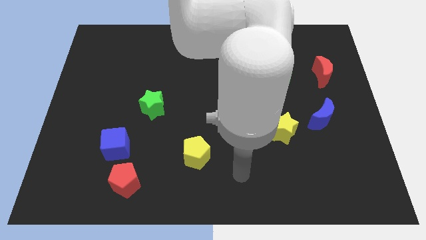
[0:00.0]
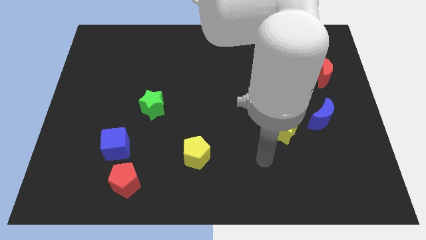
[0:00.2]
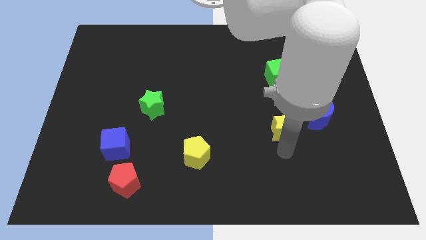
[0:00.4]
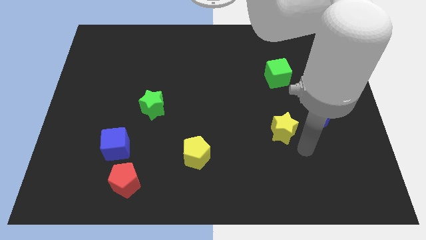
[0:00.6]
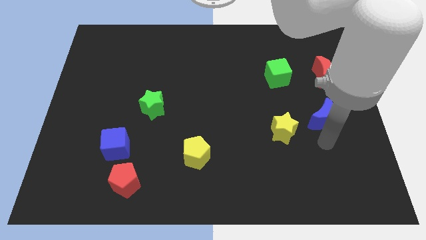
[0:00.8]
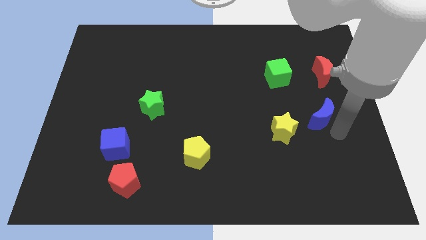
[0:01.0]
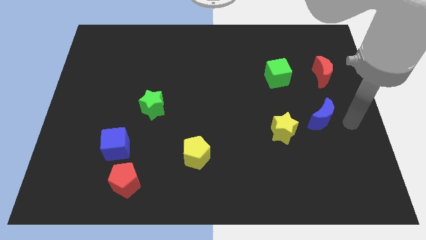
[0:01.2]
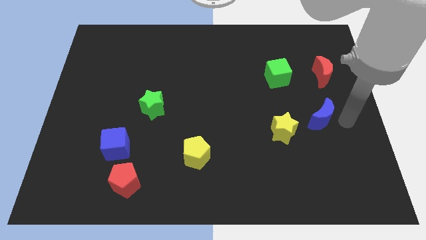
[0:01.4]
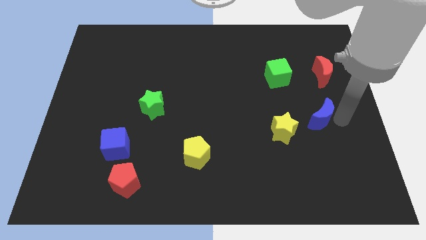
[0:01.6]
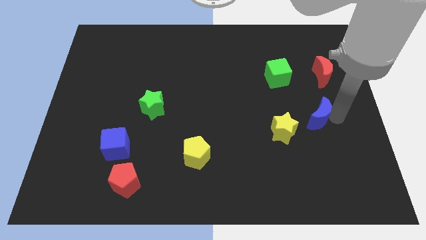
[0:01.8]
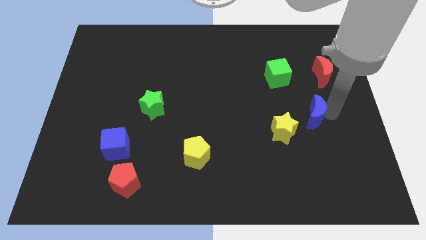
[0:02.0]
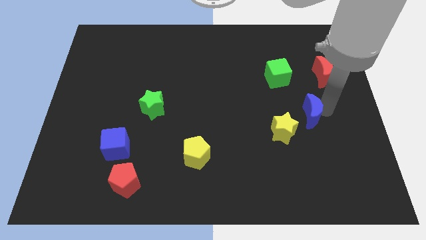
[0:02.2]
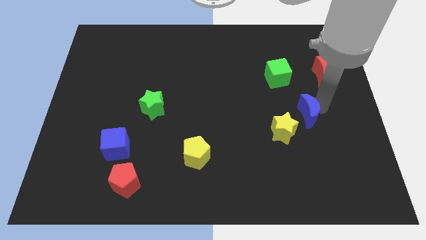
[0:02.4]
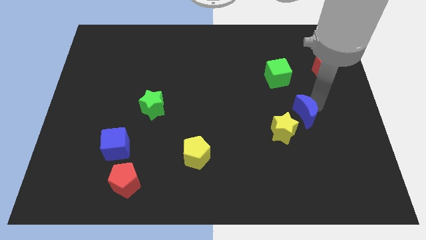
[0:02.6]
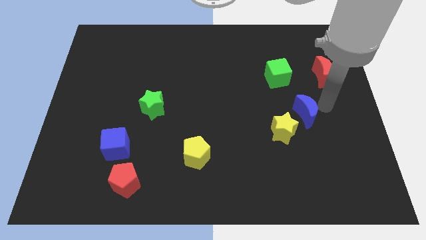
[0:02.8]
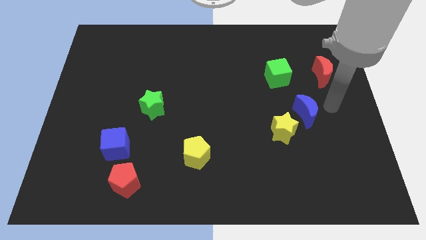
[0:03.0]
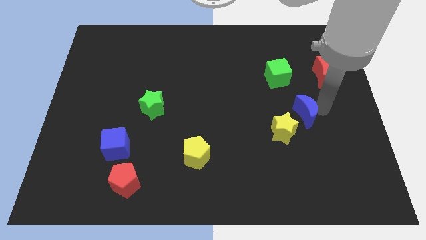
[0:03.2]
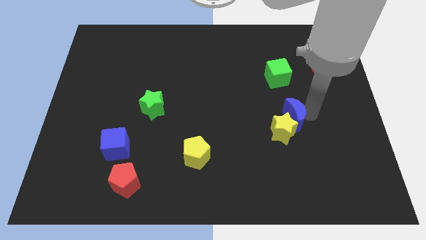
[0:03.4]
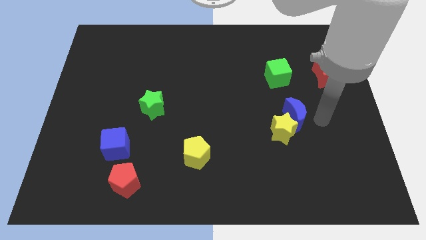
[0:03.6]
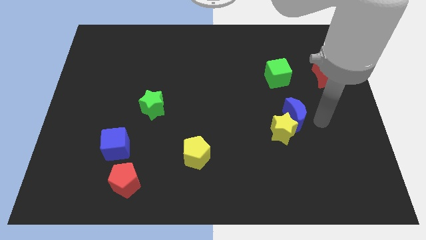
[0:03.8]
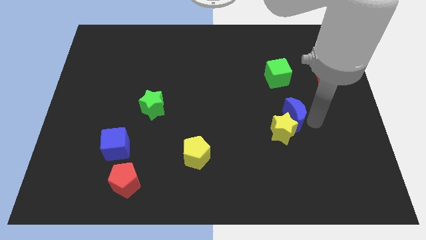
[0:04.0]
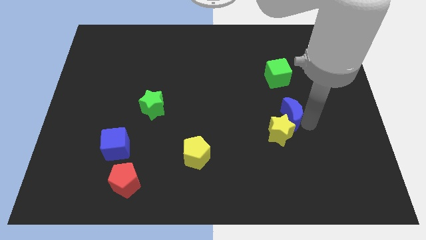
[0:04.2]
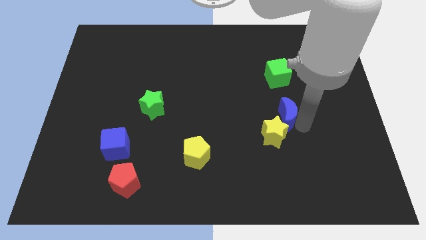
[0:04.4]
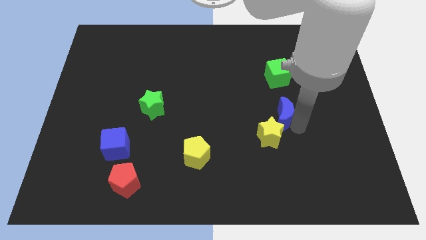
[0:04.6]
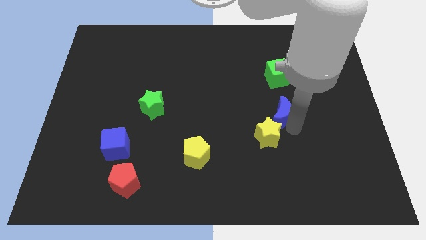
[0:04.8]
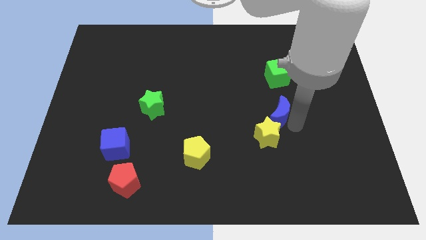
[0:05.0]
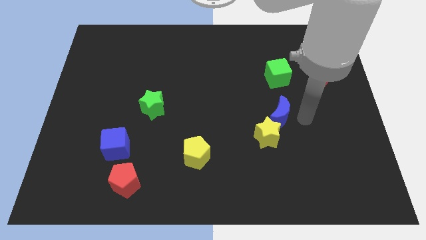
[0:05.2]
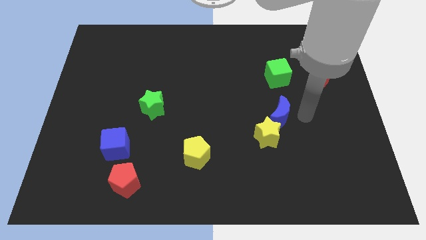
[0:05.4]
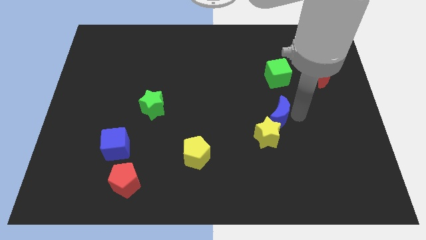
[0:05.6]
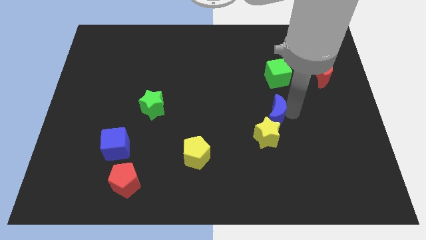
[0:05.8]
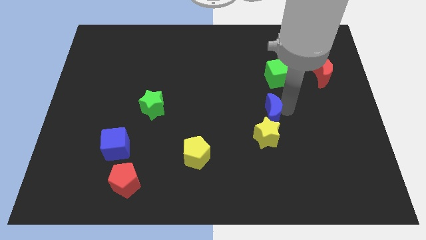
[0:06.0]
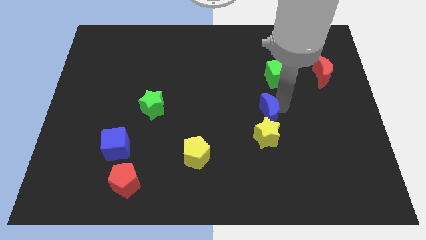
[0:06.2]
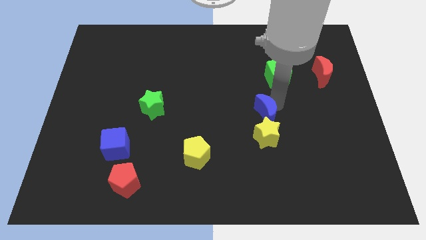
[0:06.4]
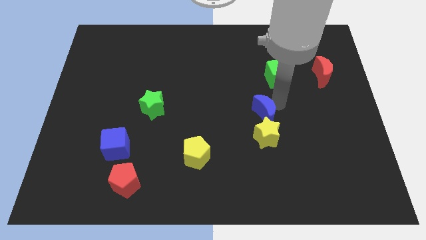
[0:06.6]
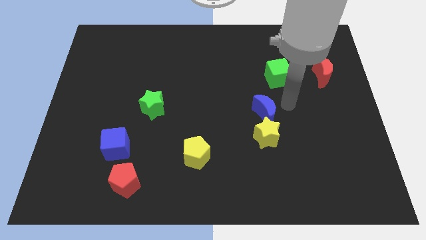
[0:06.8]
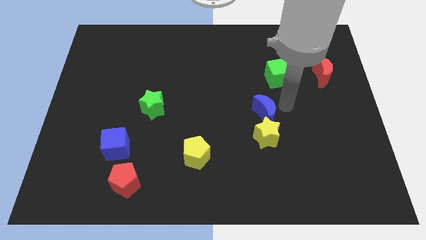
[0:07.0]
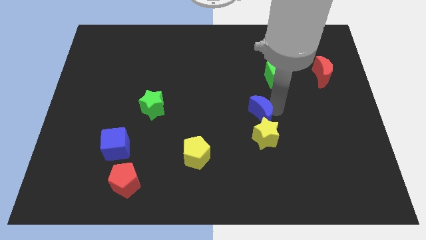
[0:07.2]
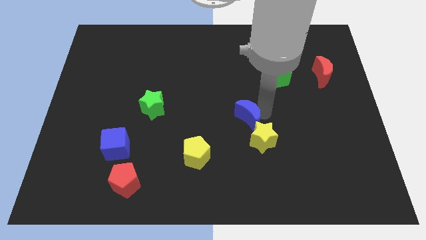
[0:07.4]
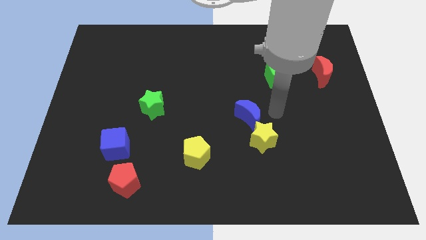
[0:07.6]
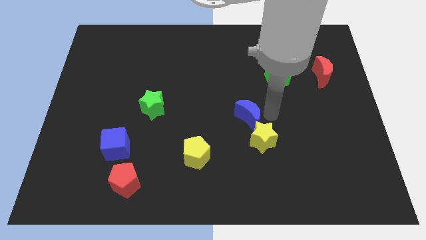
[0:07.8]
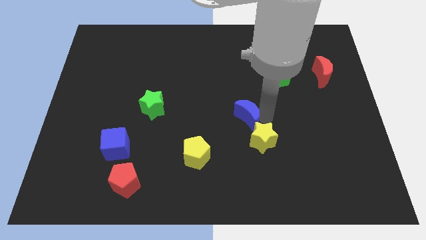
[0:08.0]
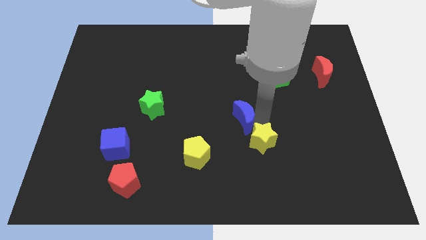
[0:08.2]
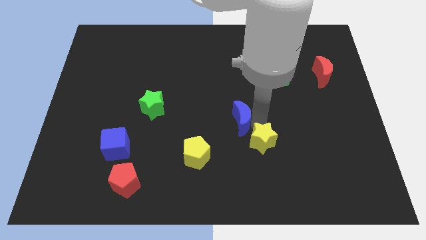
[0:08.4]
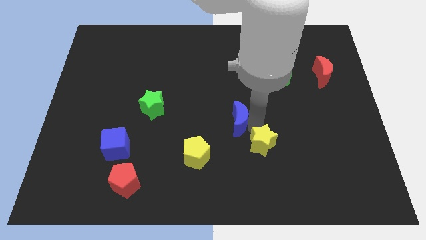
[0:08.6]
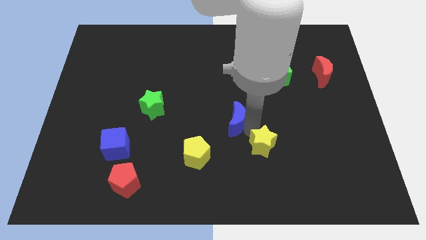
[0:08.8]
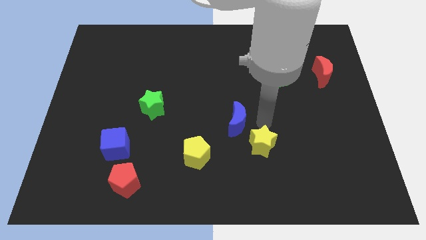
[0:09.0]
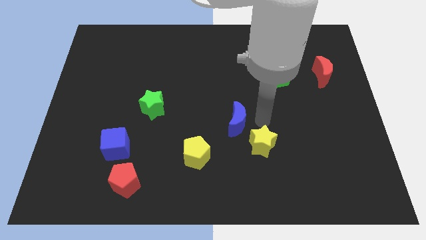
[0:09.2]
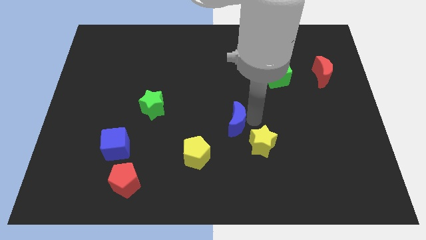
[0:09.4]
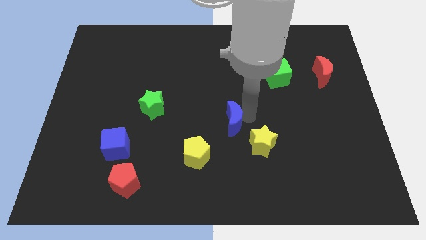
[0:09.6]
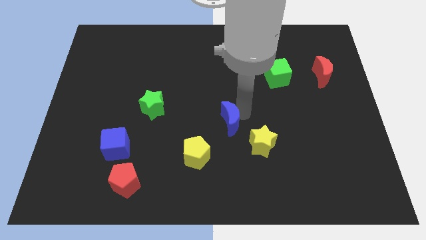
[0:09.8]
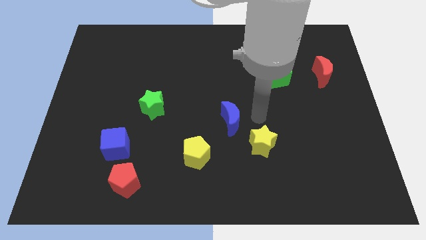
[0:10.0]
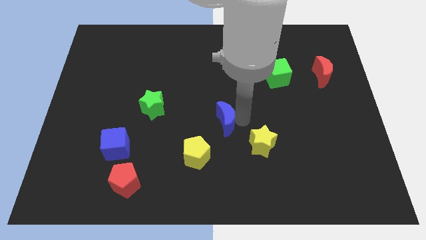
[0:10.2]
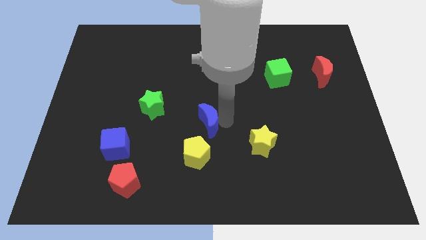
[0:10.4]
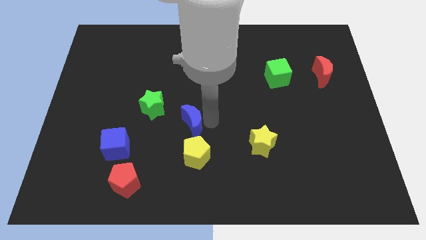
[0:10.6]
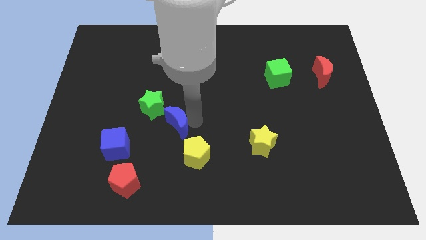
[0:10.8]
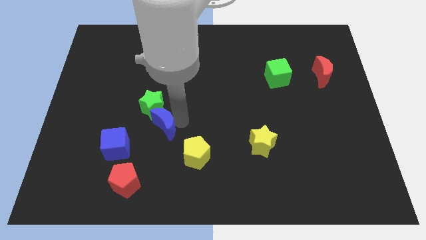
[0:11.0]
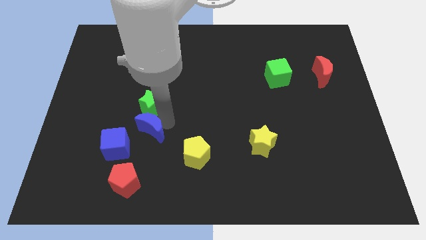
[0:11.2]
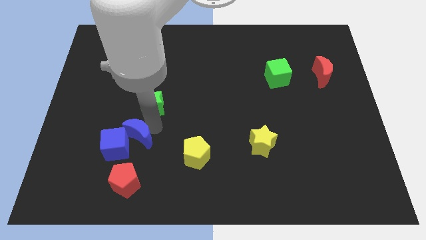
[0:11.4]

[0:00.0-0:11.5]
push the blue moon close to the blue cube
